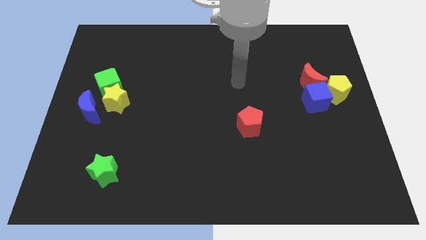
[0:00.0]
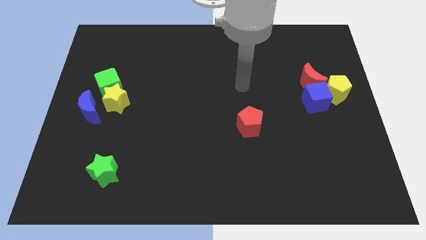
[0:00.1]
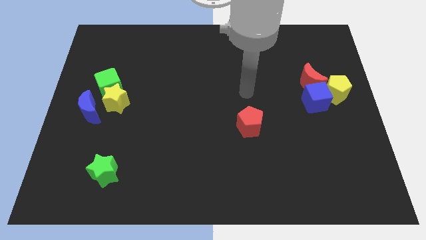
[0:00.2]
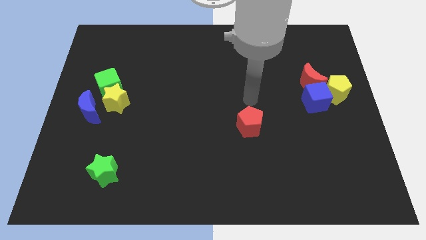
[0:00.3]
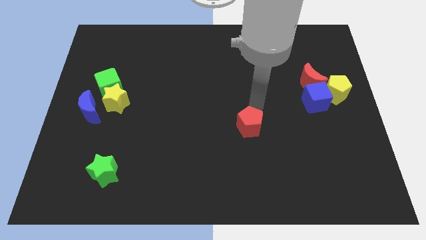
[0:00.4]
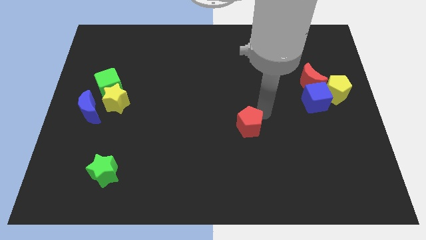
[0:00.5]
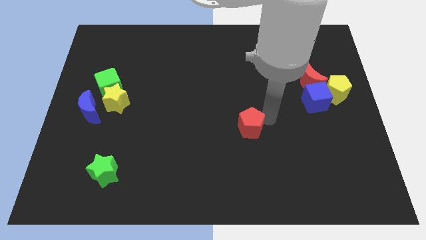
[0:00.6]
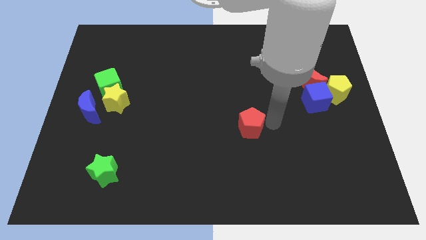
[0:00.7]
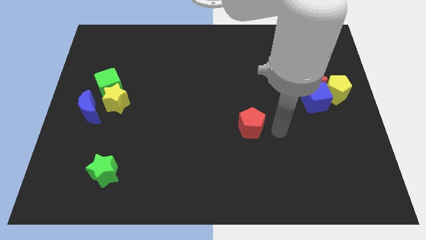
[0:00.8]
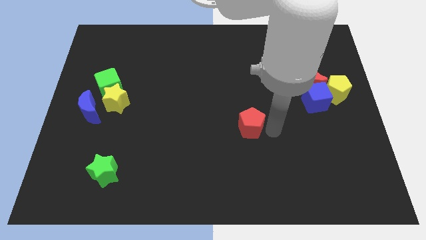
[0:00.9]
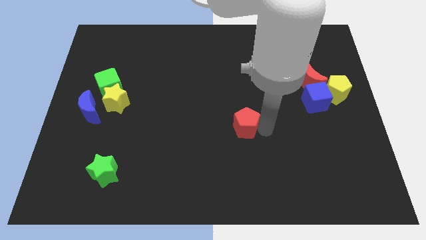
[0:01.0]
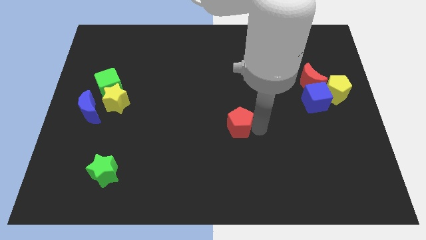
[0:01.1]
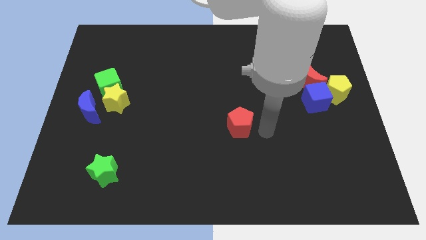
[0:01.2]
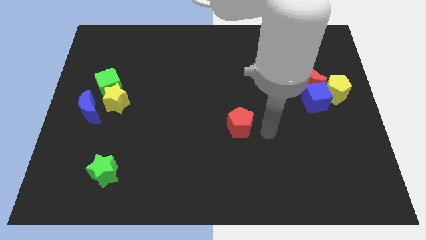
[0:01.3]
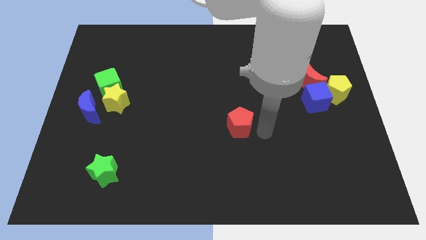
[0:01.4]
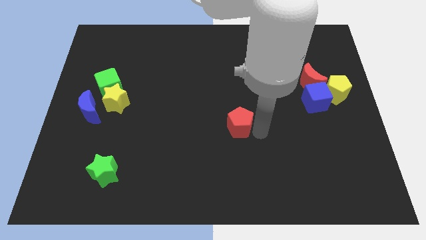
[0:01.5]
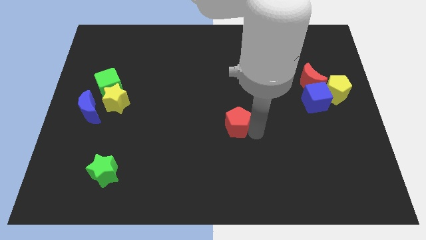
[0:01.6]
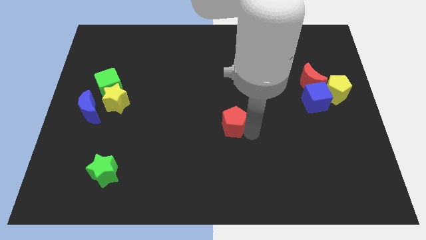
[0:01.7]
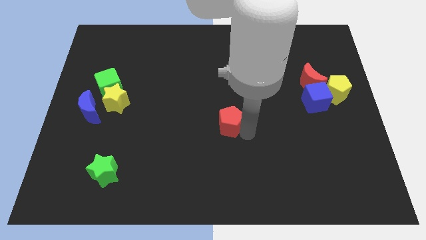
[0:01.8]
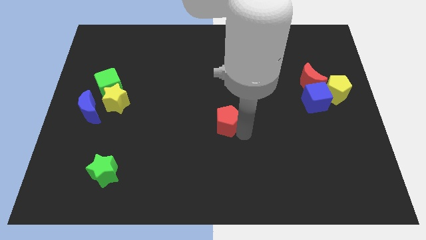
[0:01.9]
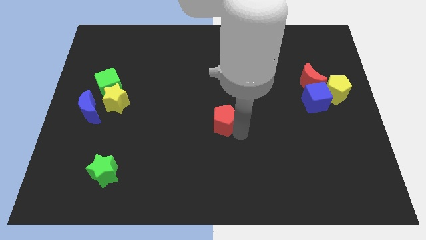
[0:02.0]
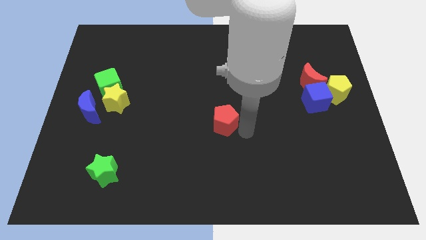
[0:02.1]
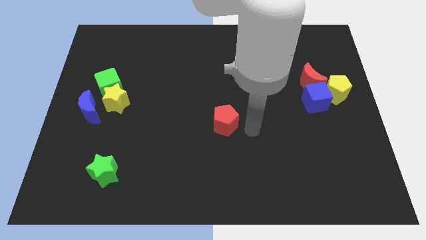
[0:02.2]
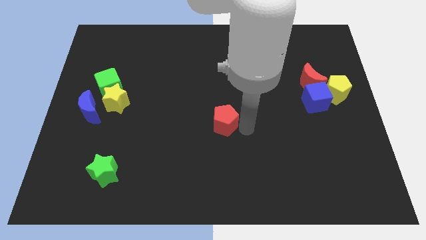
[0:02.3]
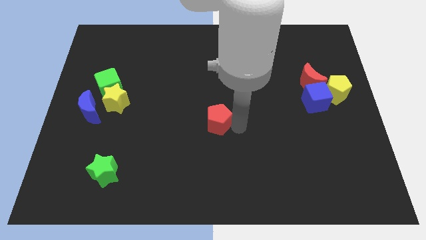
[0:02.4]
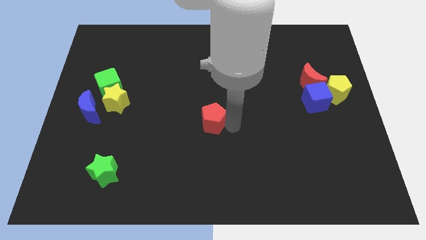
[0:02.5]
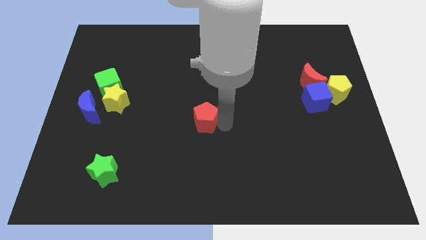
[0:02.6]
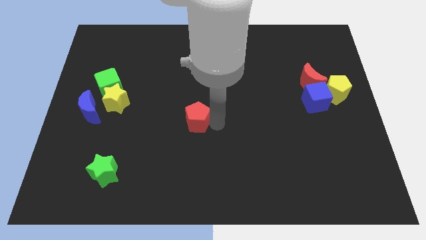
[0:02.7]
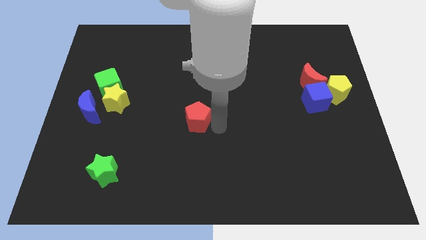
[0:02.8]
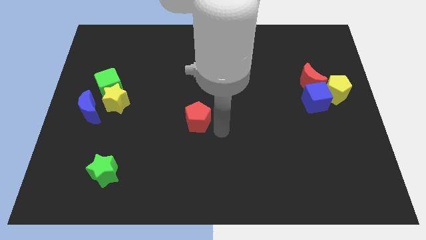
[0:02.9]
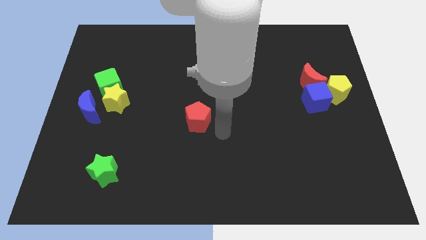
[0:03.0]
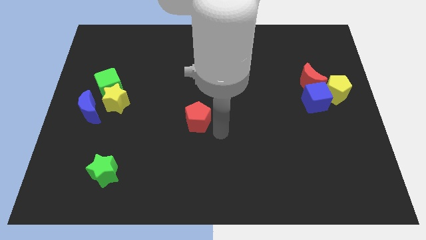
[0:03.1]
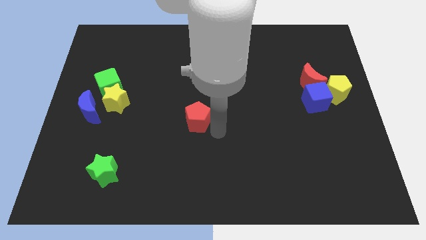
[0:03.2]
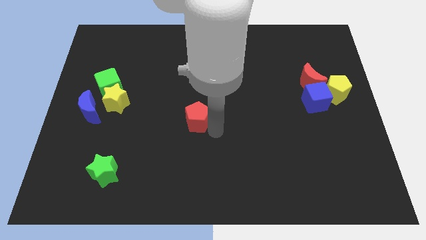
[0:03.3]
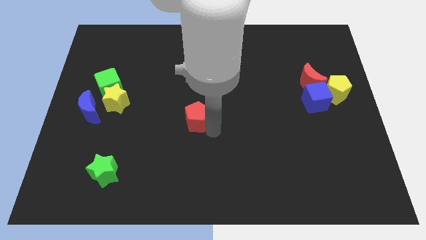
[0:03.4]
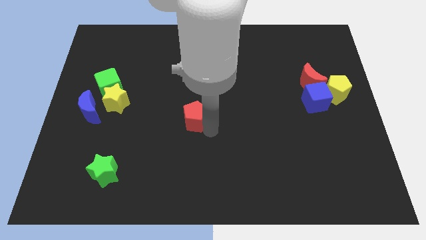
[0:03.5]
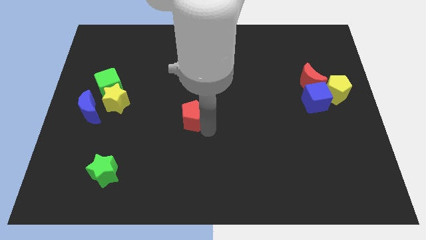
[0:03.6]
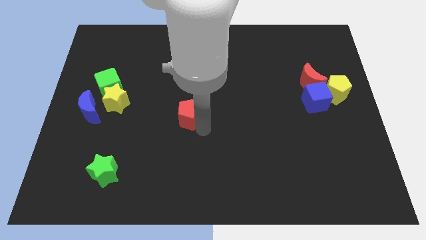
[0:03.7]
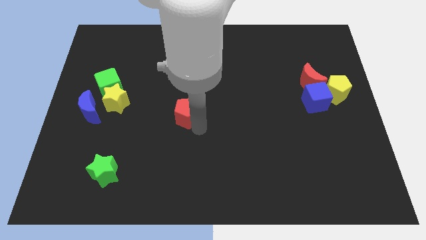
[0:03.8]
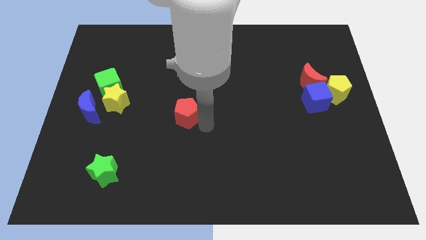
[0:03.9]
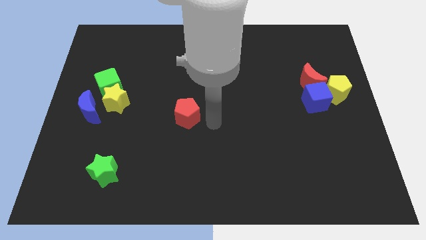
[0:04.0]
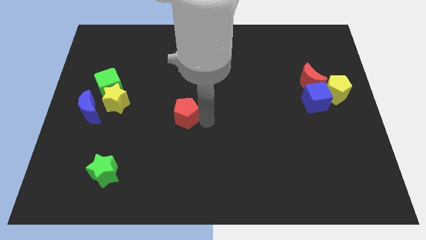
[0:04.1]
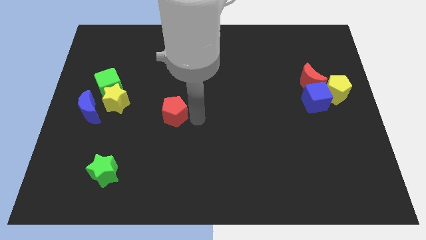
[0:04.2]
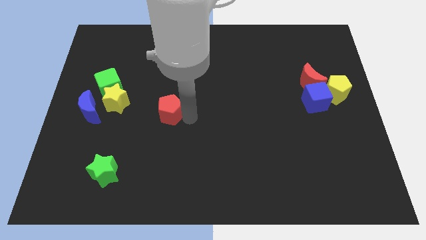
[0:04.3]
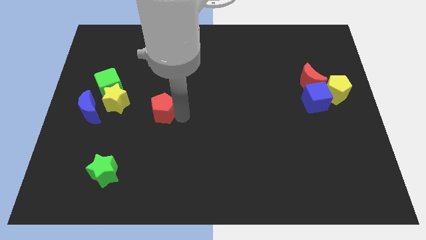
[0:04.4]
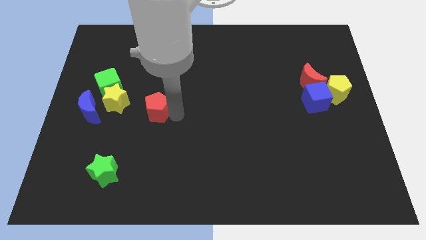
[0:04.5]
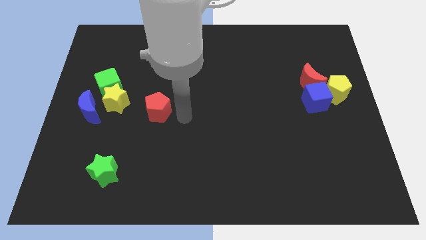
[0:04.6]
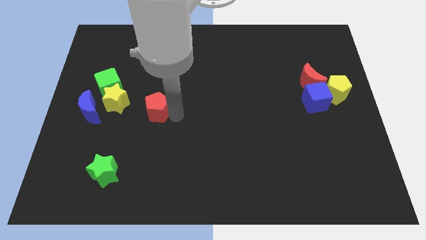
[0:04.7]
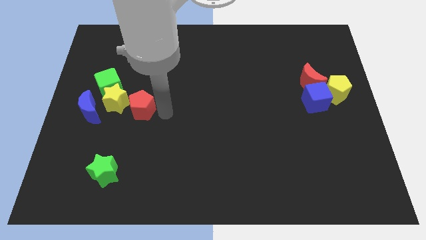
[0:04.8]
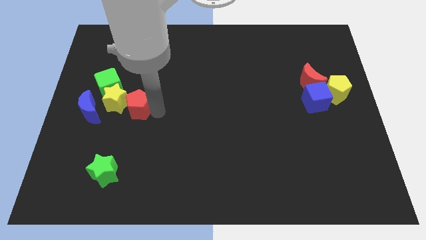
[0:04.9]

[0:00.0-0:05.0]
move the red pentagon to the yellow star

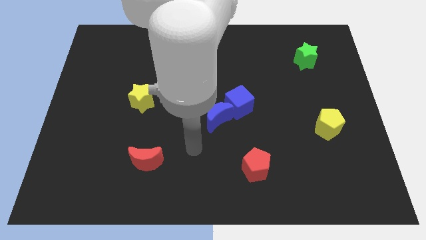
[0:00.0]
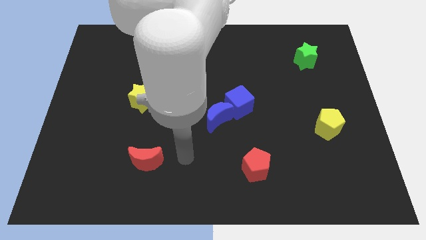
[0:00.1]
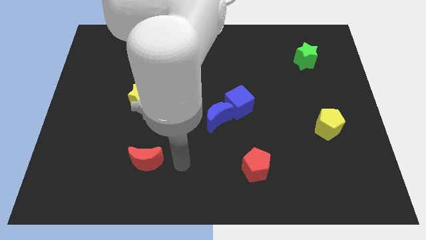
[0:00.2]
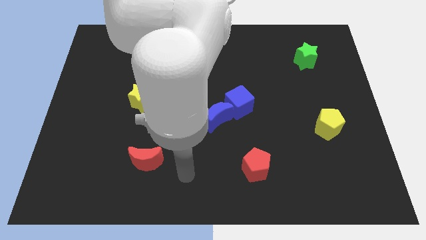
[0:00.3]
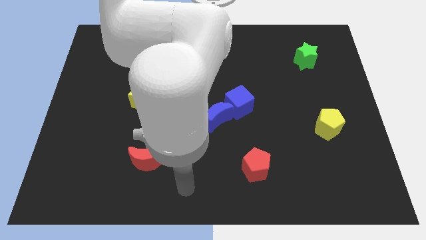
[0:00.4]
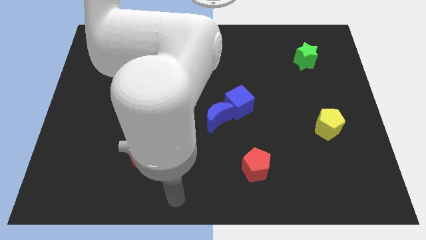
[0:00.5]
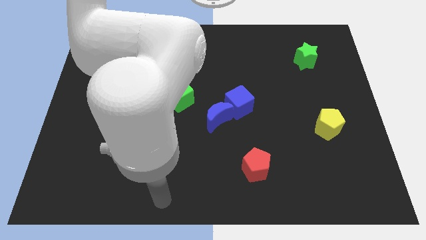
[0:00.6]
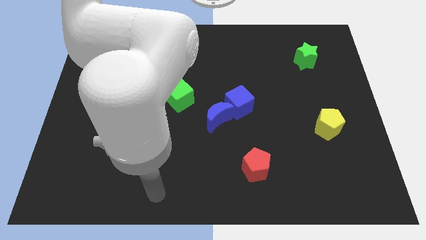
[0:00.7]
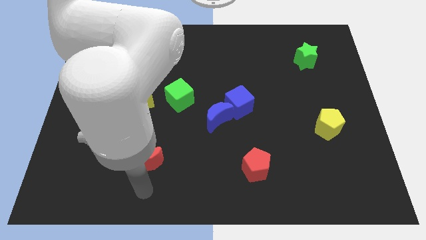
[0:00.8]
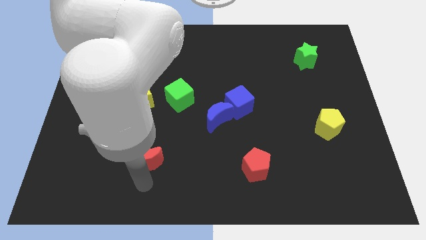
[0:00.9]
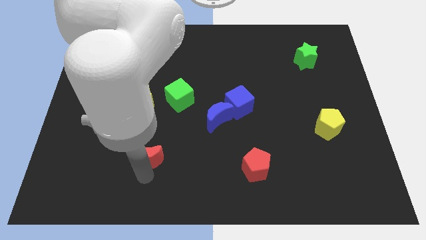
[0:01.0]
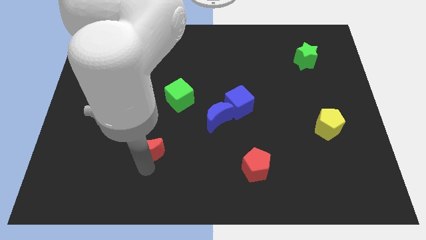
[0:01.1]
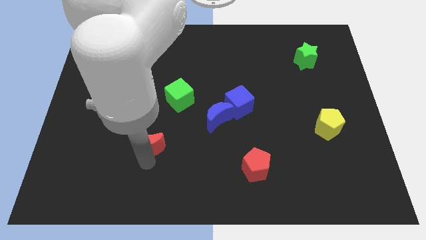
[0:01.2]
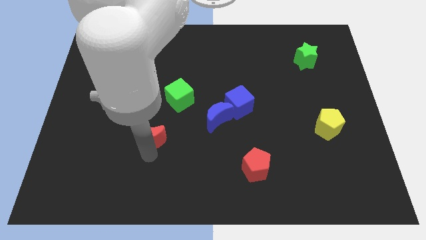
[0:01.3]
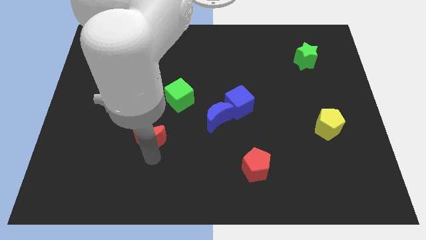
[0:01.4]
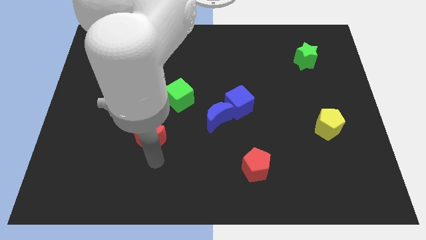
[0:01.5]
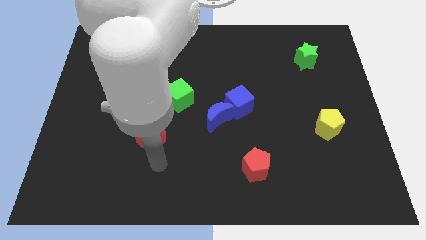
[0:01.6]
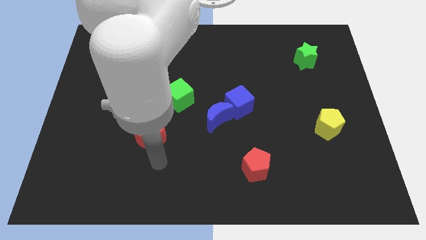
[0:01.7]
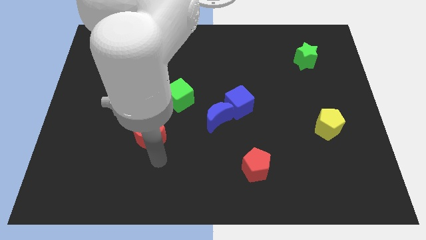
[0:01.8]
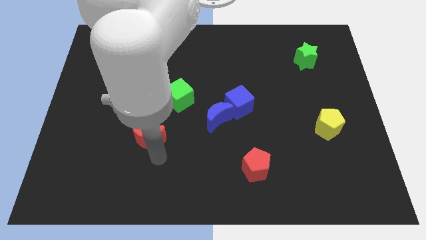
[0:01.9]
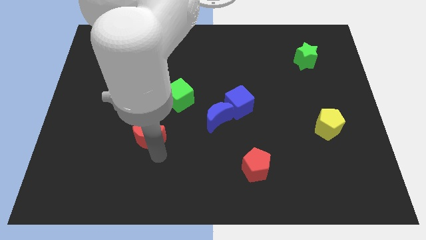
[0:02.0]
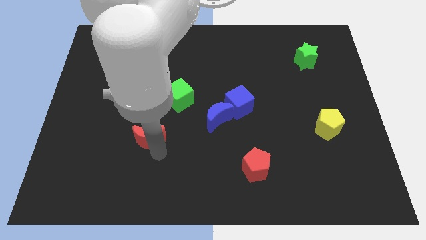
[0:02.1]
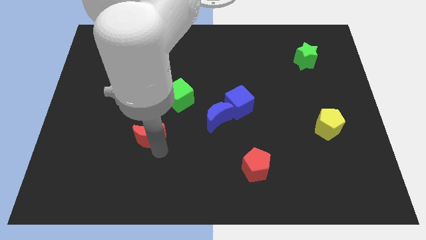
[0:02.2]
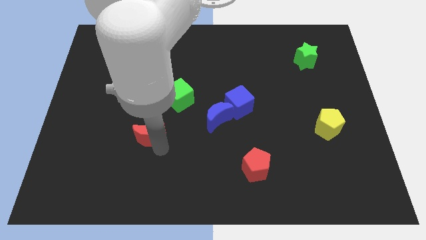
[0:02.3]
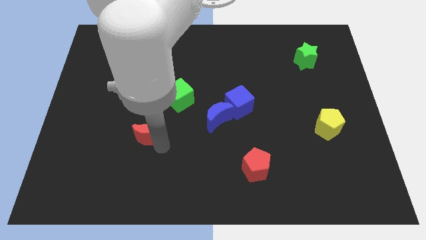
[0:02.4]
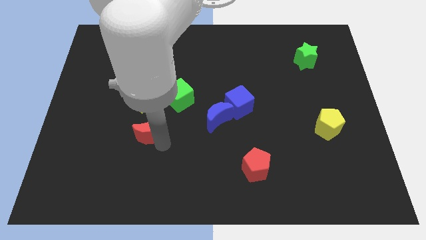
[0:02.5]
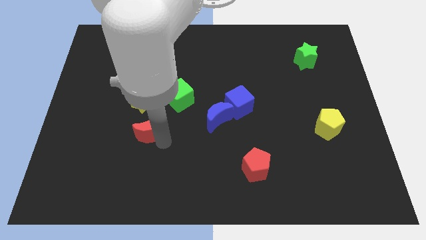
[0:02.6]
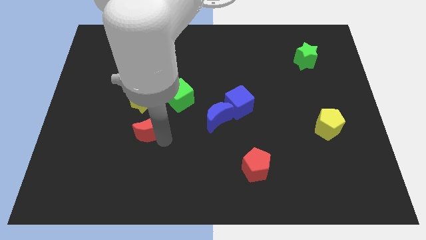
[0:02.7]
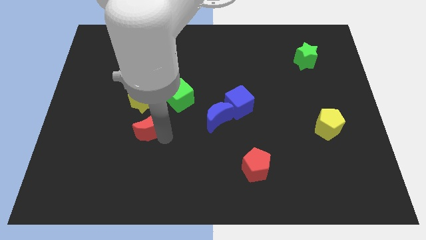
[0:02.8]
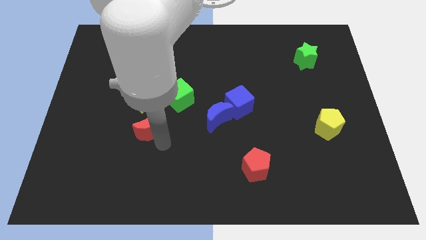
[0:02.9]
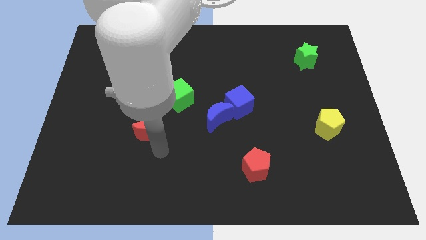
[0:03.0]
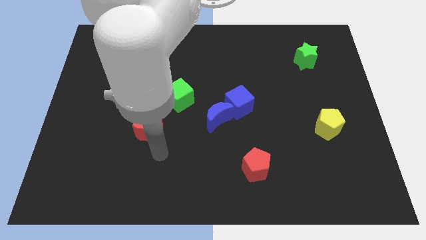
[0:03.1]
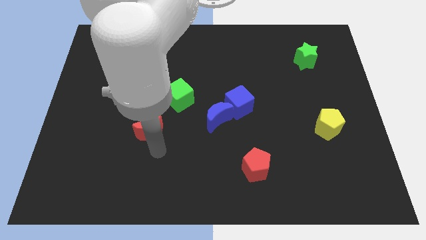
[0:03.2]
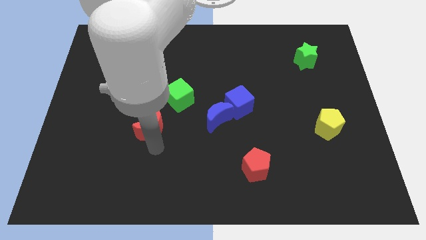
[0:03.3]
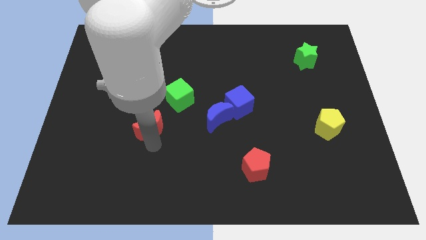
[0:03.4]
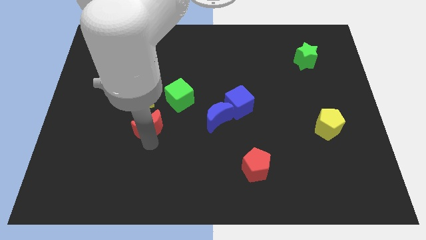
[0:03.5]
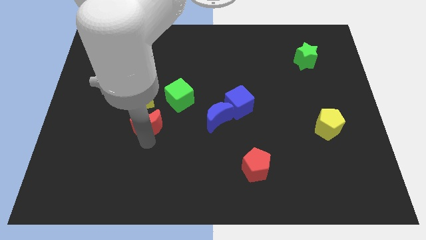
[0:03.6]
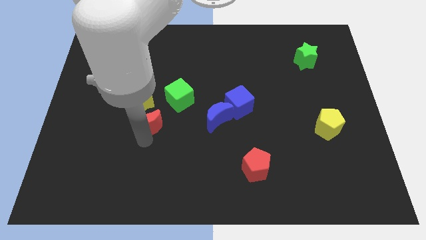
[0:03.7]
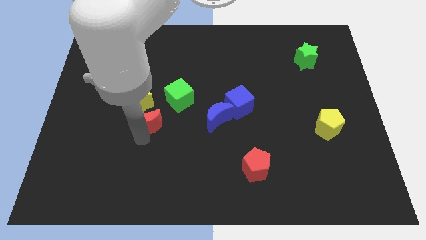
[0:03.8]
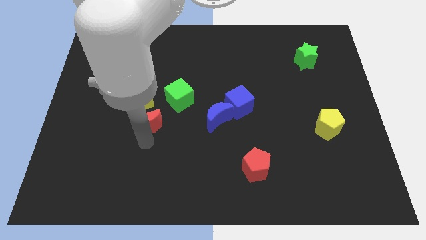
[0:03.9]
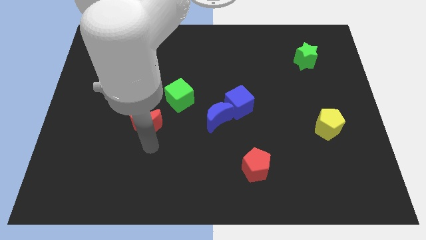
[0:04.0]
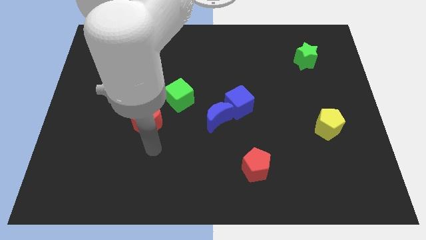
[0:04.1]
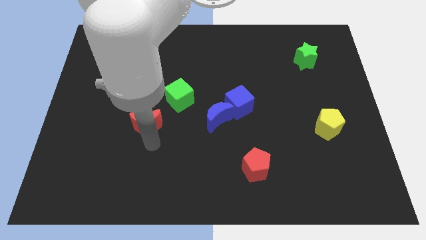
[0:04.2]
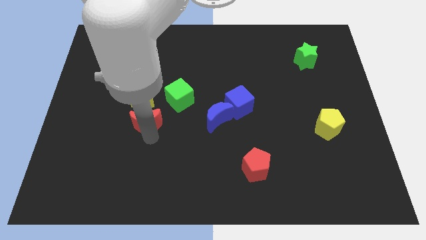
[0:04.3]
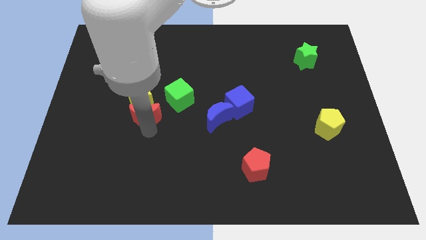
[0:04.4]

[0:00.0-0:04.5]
move the red moon to the yellow star
